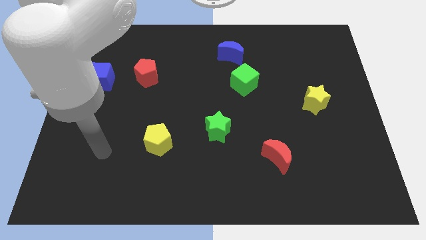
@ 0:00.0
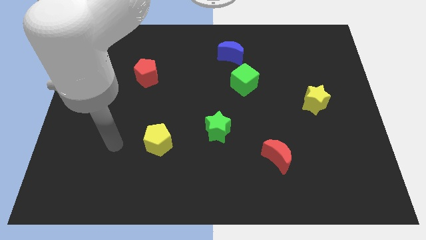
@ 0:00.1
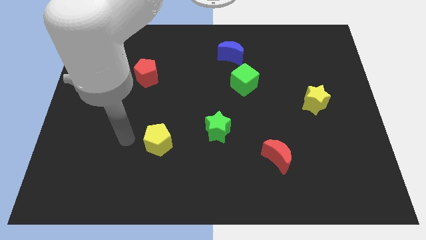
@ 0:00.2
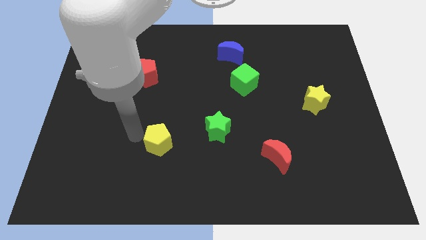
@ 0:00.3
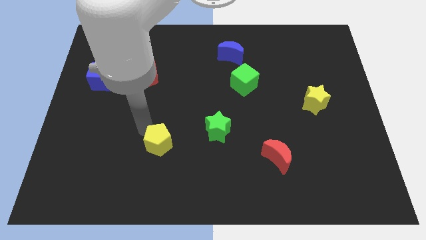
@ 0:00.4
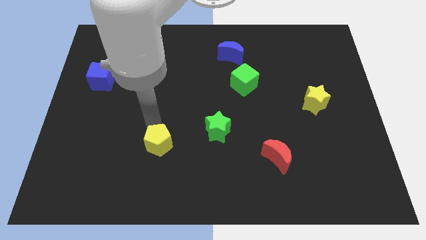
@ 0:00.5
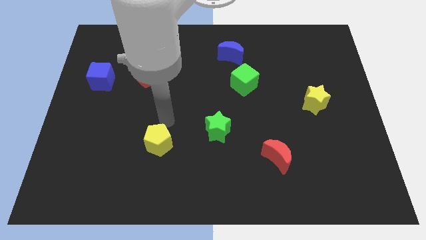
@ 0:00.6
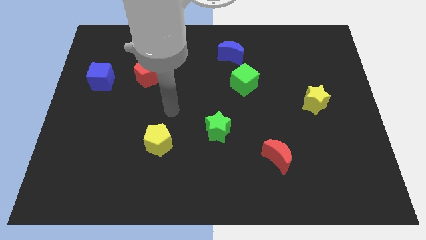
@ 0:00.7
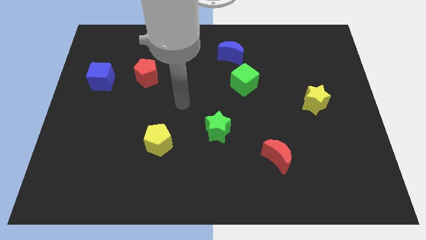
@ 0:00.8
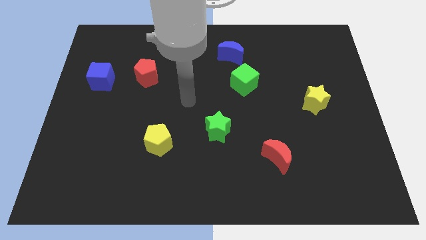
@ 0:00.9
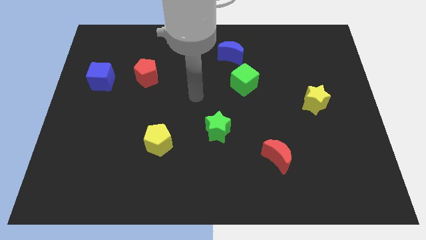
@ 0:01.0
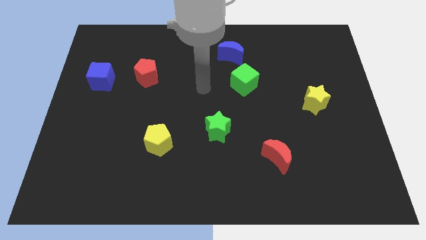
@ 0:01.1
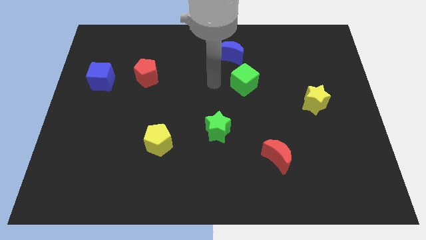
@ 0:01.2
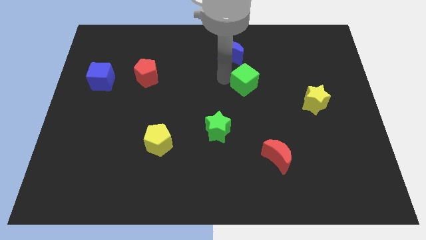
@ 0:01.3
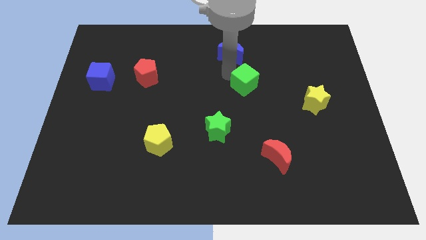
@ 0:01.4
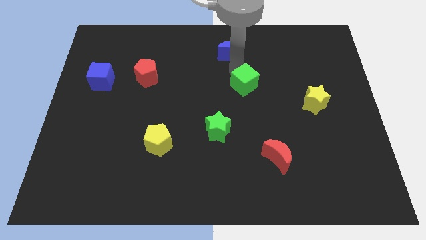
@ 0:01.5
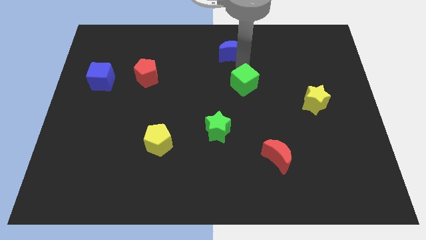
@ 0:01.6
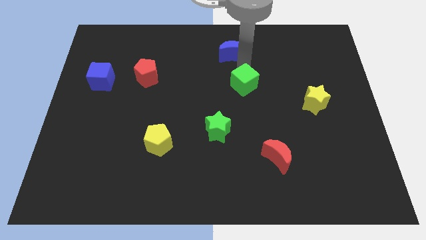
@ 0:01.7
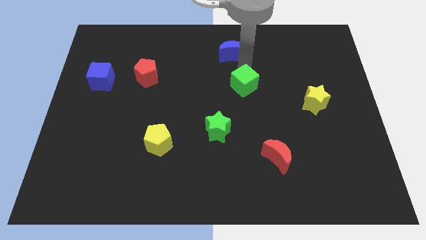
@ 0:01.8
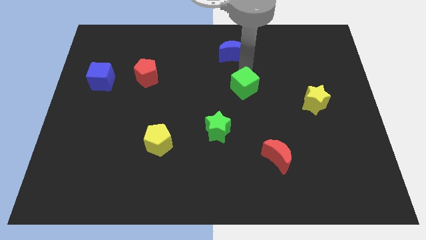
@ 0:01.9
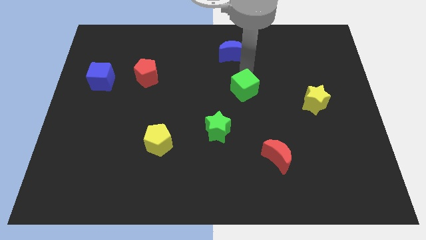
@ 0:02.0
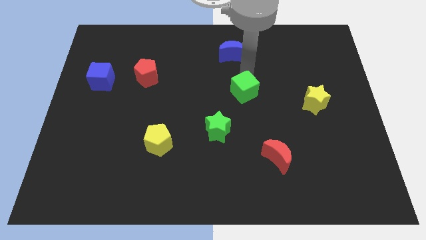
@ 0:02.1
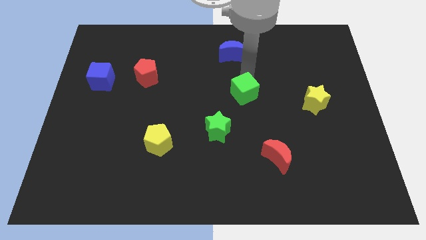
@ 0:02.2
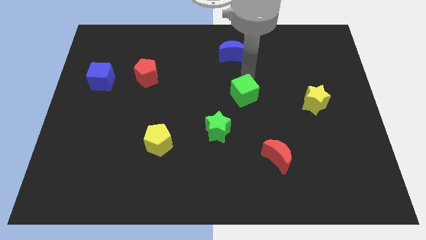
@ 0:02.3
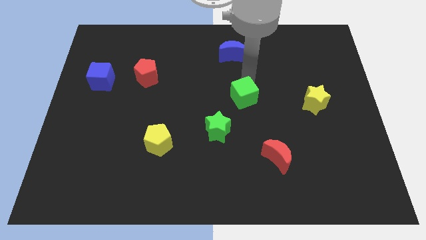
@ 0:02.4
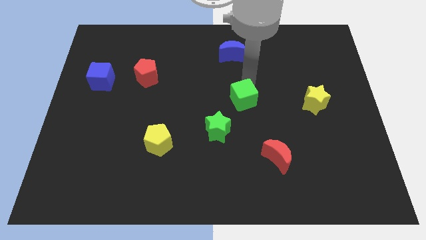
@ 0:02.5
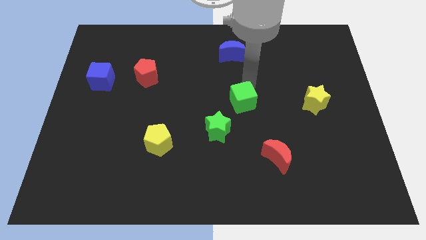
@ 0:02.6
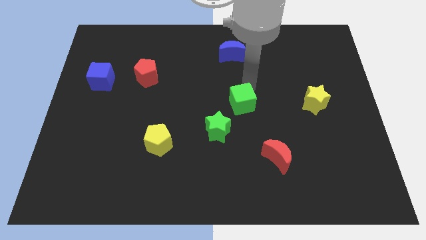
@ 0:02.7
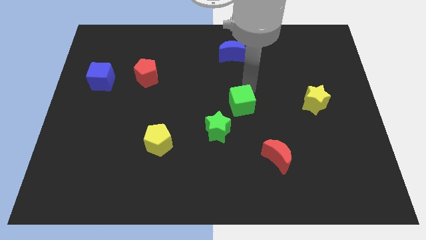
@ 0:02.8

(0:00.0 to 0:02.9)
push the green cube down slightly

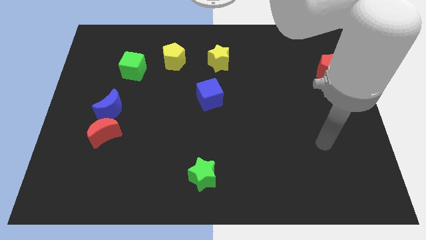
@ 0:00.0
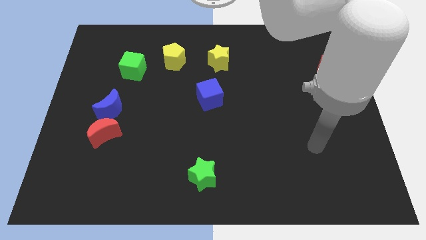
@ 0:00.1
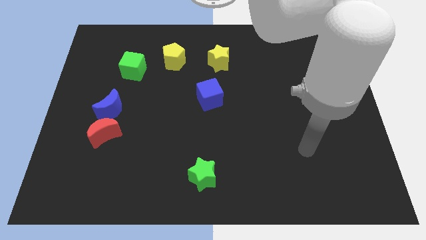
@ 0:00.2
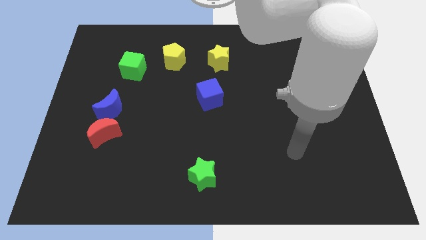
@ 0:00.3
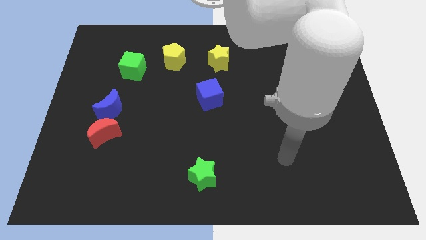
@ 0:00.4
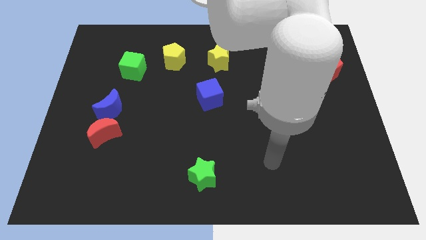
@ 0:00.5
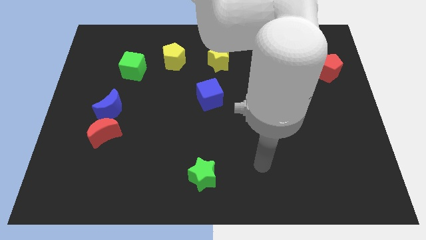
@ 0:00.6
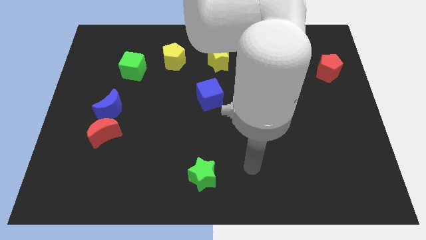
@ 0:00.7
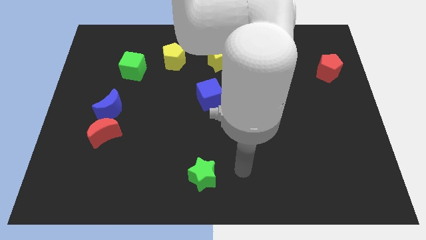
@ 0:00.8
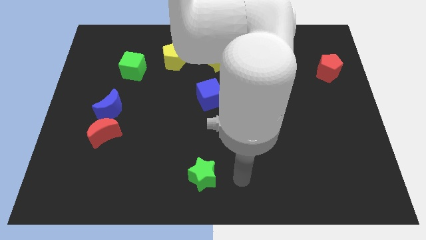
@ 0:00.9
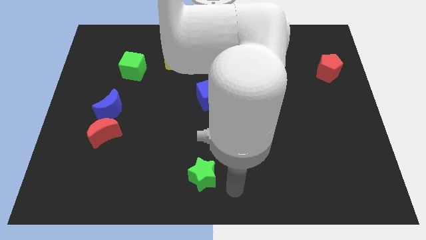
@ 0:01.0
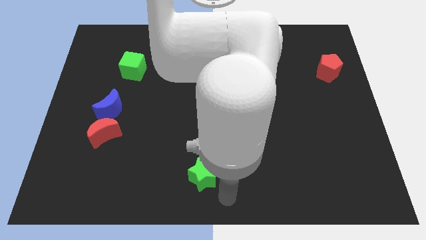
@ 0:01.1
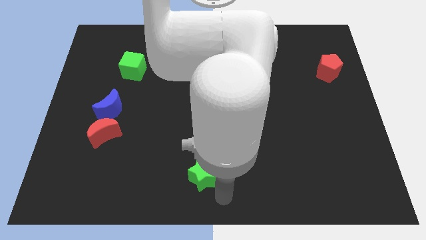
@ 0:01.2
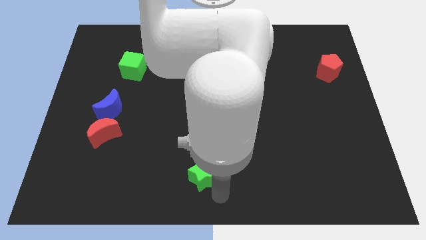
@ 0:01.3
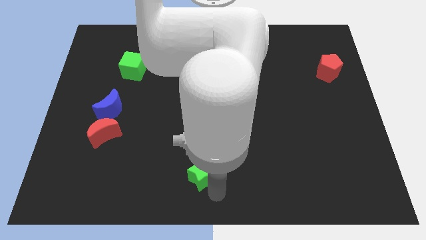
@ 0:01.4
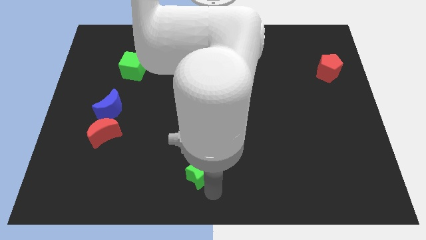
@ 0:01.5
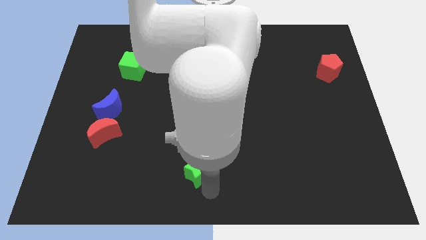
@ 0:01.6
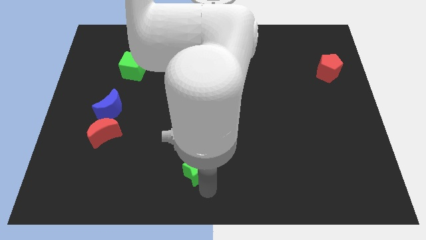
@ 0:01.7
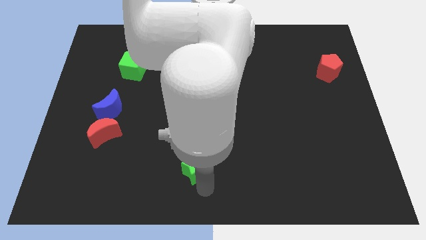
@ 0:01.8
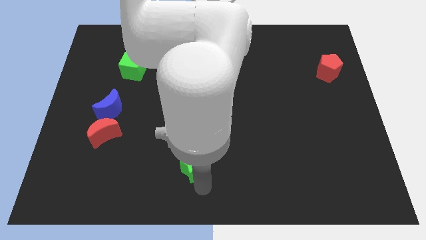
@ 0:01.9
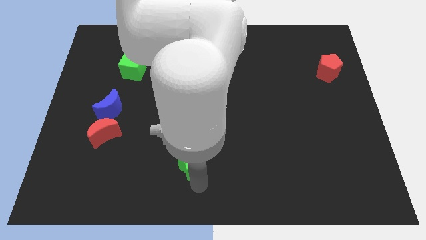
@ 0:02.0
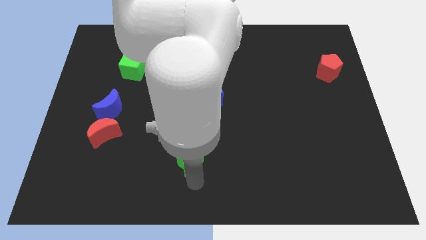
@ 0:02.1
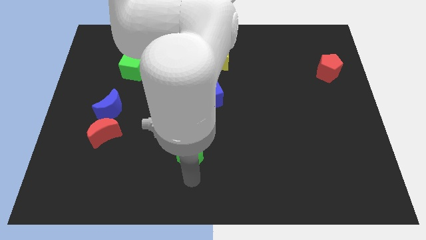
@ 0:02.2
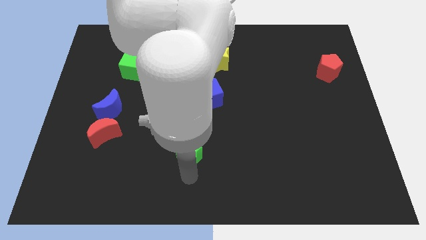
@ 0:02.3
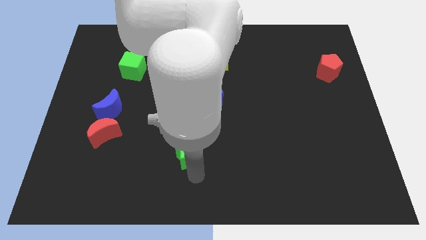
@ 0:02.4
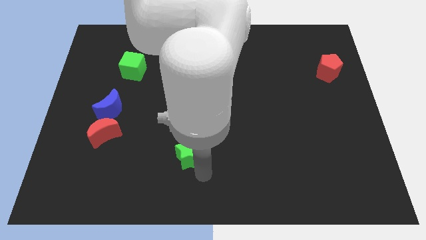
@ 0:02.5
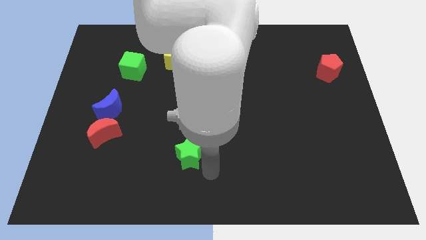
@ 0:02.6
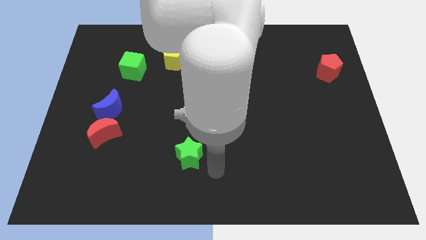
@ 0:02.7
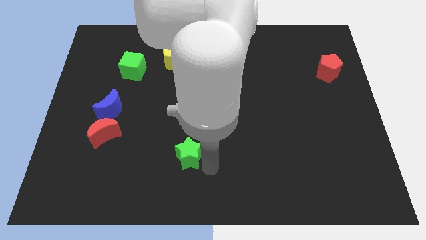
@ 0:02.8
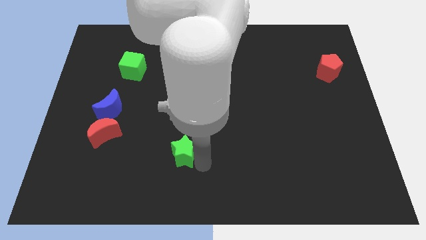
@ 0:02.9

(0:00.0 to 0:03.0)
move the green star slightly up and left

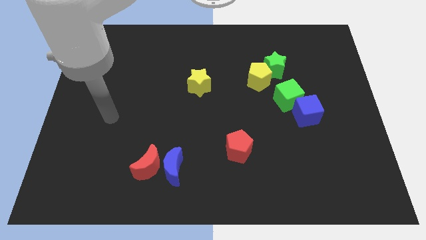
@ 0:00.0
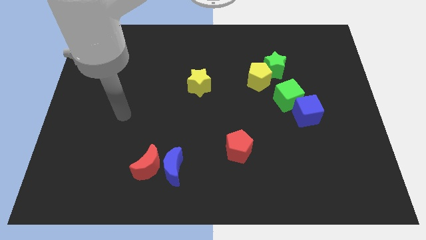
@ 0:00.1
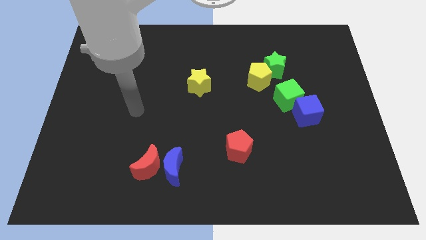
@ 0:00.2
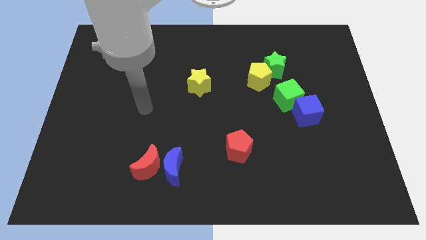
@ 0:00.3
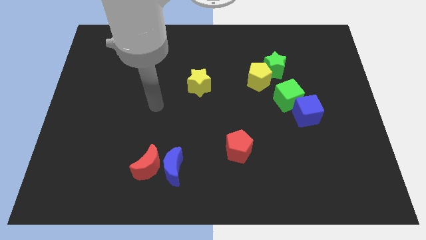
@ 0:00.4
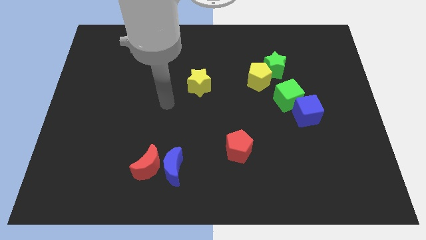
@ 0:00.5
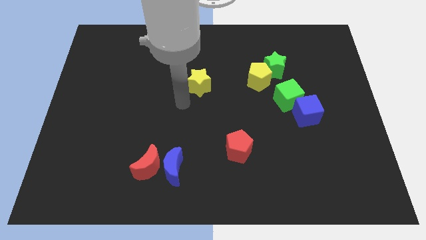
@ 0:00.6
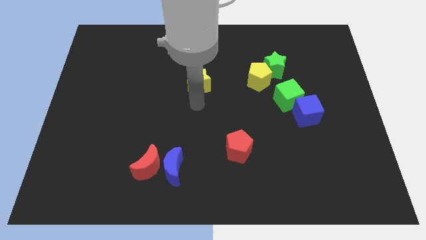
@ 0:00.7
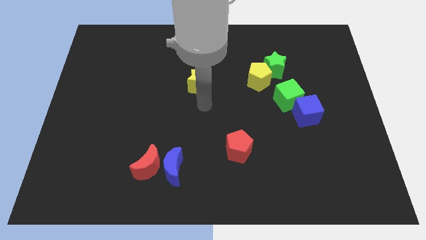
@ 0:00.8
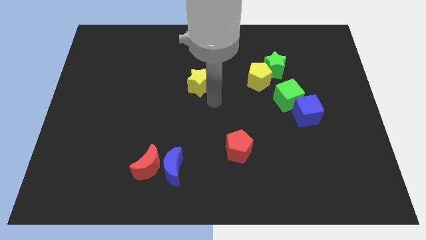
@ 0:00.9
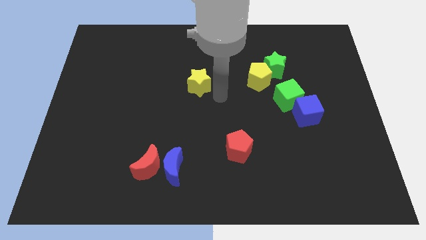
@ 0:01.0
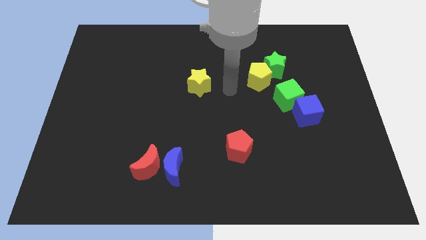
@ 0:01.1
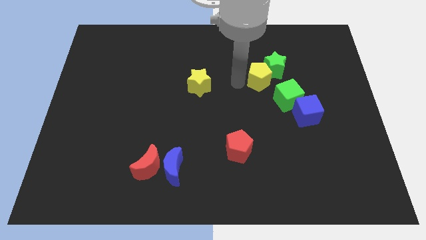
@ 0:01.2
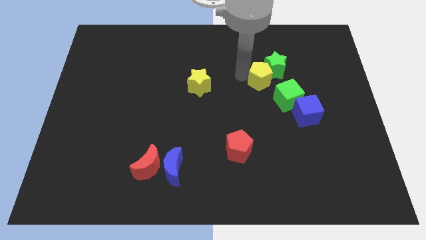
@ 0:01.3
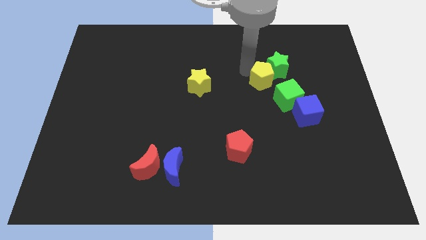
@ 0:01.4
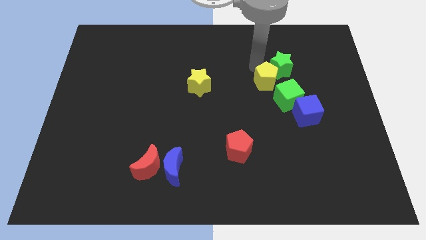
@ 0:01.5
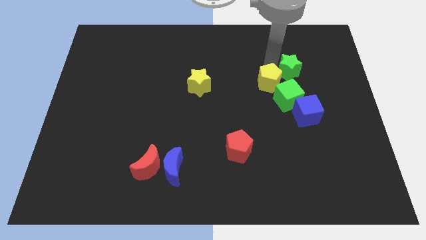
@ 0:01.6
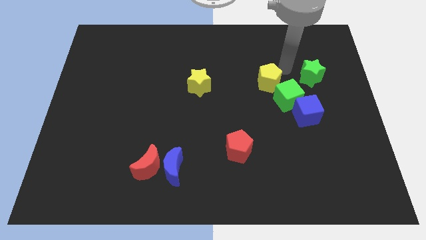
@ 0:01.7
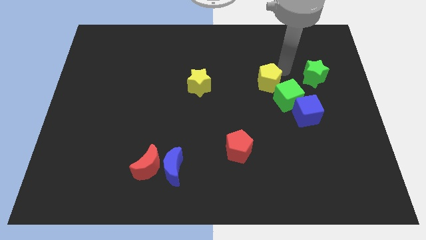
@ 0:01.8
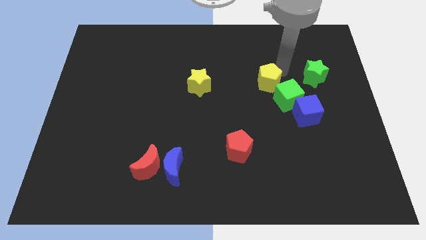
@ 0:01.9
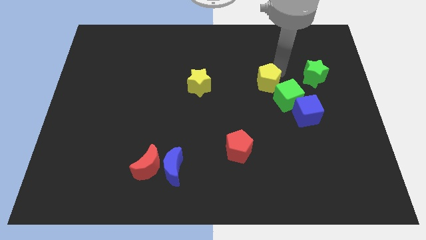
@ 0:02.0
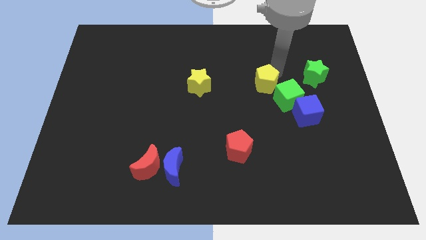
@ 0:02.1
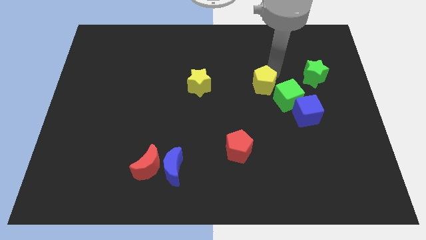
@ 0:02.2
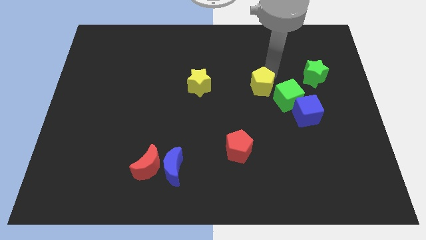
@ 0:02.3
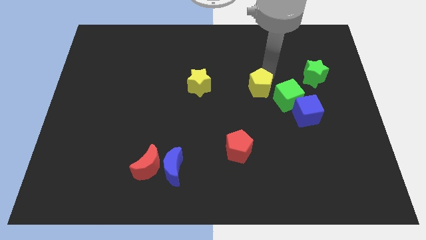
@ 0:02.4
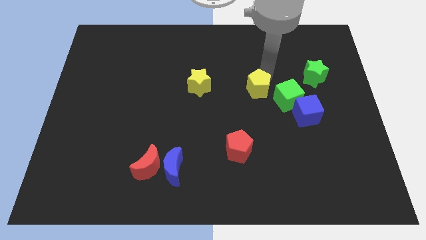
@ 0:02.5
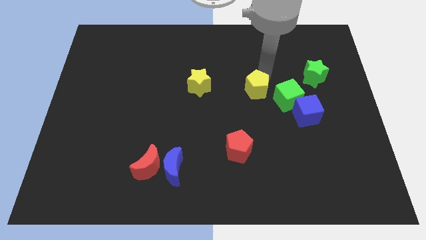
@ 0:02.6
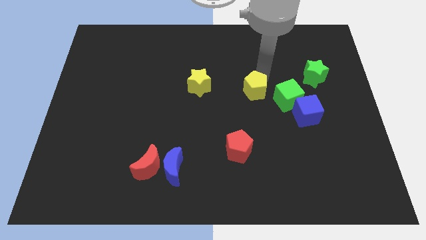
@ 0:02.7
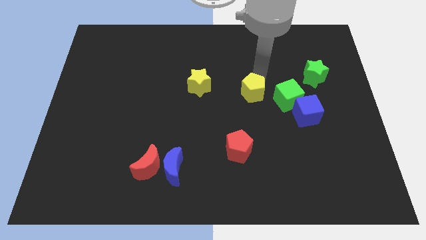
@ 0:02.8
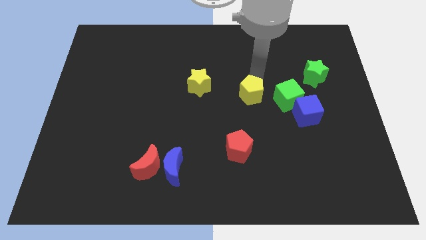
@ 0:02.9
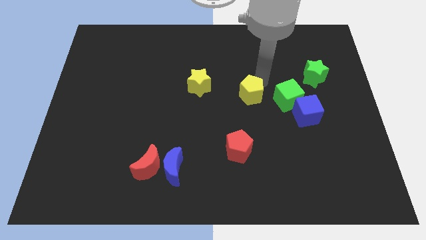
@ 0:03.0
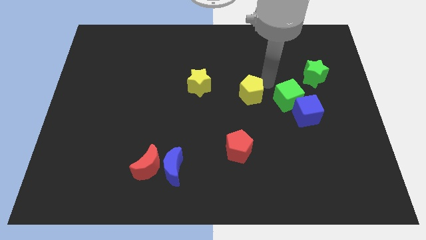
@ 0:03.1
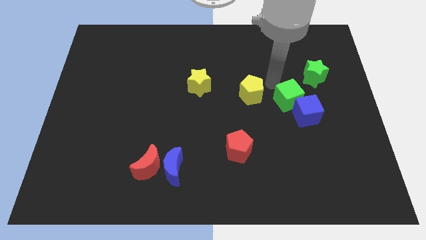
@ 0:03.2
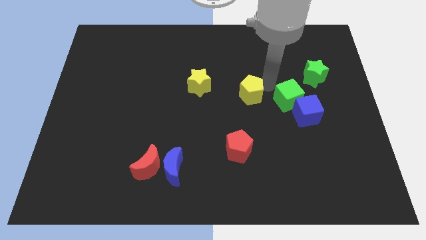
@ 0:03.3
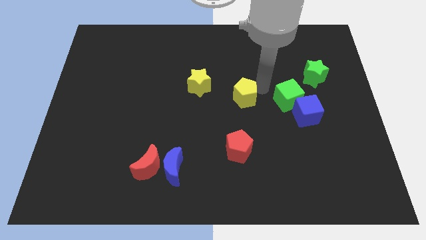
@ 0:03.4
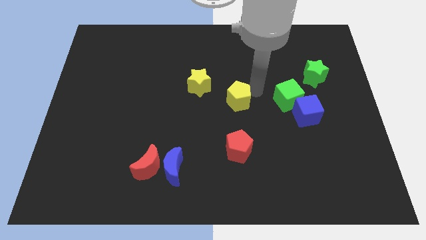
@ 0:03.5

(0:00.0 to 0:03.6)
push the yellow pentagon diagonally downwards and to the left somewhat
